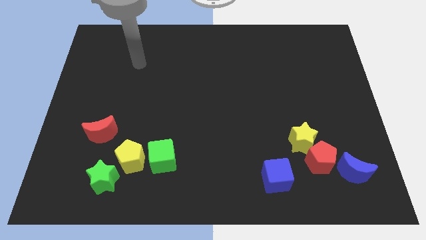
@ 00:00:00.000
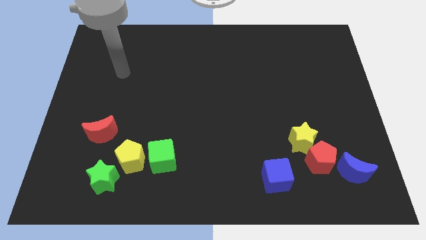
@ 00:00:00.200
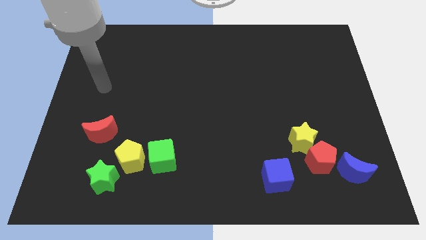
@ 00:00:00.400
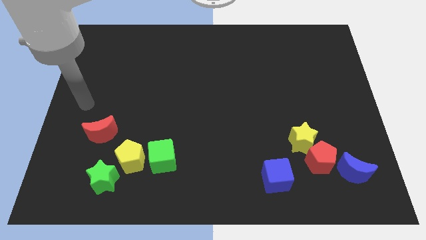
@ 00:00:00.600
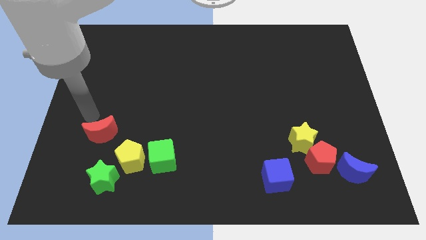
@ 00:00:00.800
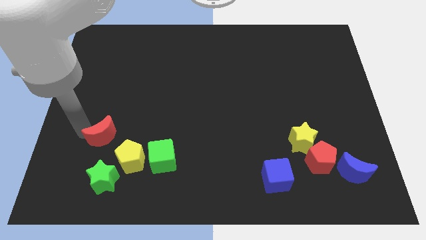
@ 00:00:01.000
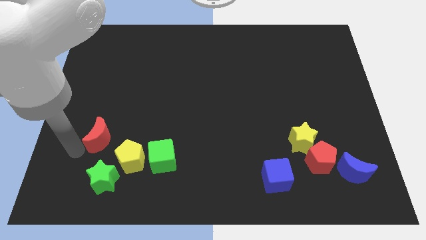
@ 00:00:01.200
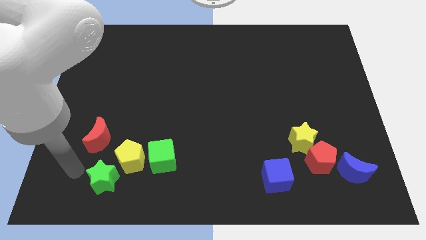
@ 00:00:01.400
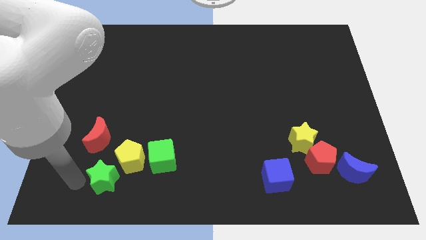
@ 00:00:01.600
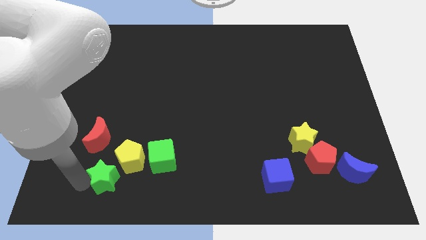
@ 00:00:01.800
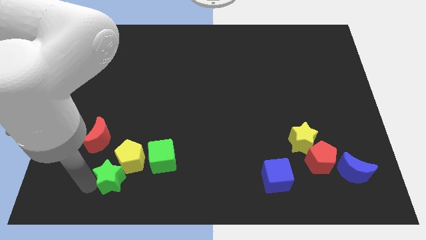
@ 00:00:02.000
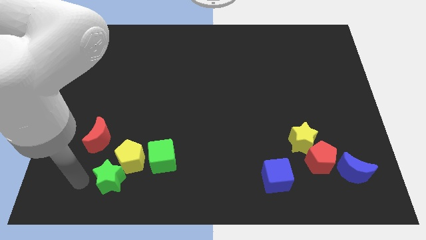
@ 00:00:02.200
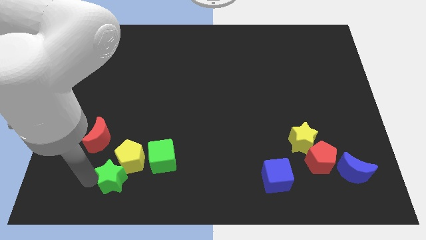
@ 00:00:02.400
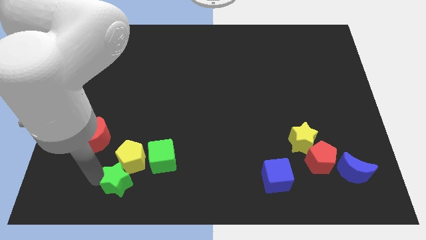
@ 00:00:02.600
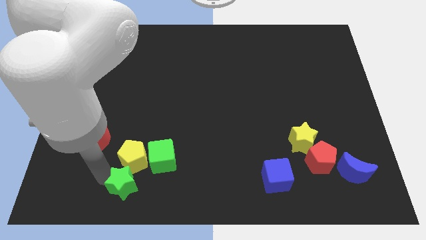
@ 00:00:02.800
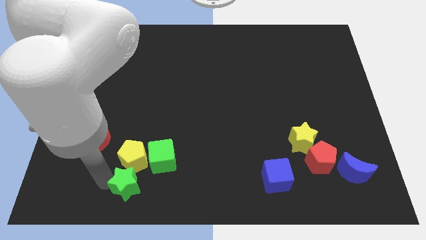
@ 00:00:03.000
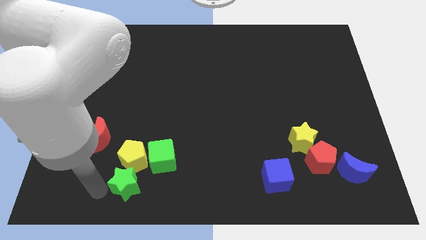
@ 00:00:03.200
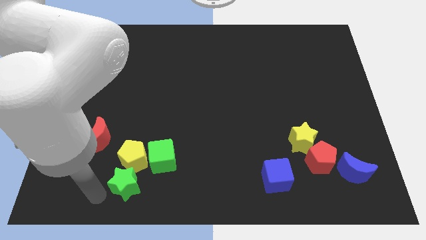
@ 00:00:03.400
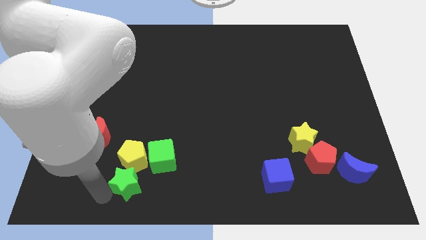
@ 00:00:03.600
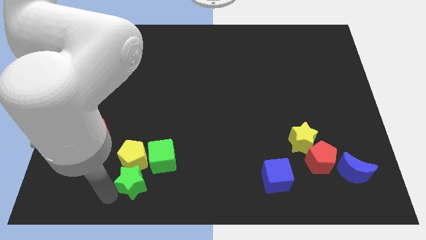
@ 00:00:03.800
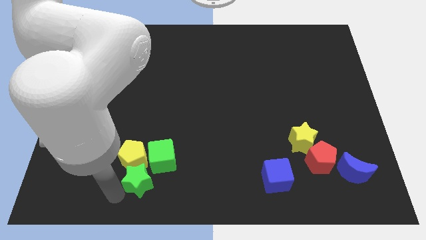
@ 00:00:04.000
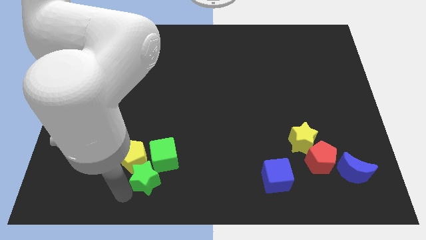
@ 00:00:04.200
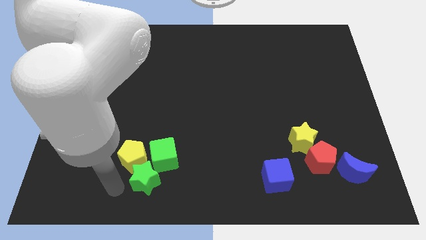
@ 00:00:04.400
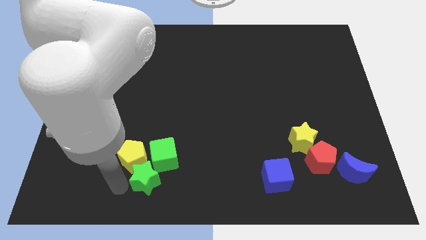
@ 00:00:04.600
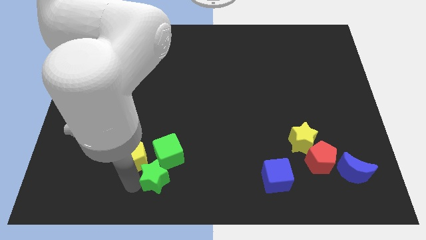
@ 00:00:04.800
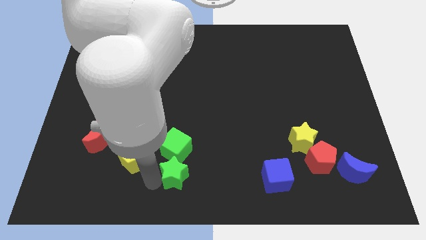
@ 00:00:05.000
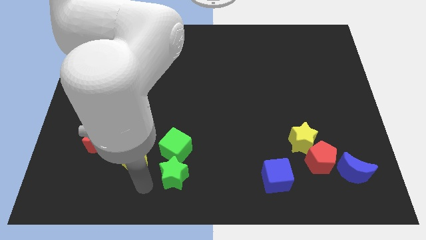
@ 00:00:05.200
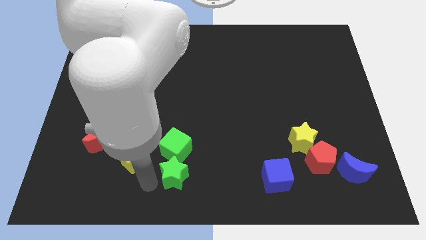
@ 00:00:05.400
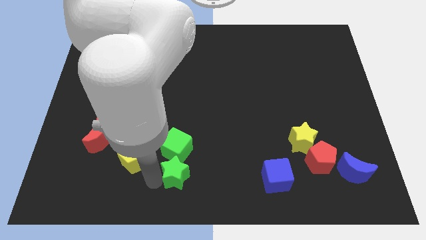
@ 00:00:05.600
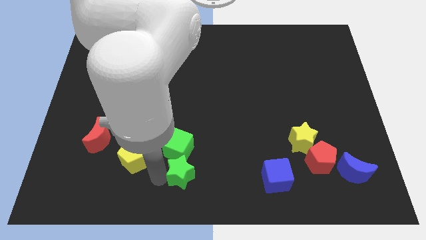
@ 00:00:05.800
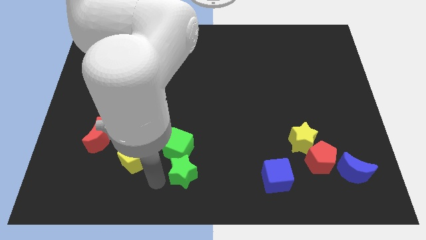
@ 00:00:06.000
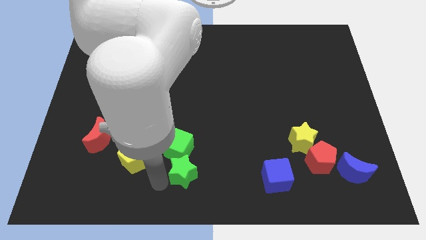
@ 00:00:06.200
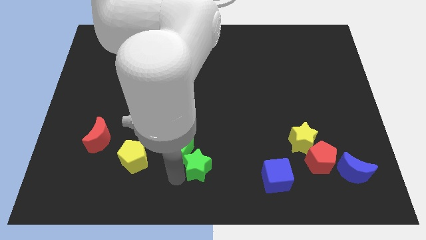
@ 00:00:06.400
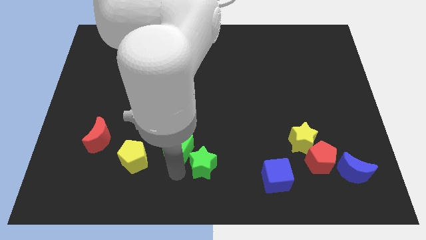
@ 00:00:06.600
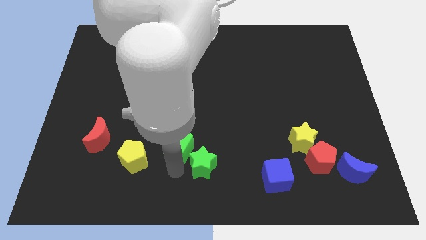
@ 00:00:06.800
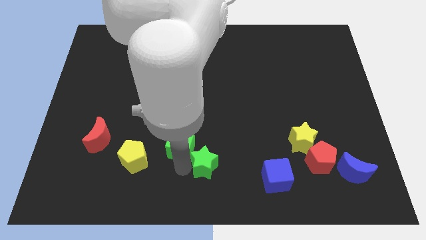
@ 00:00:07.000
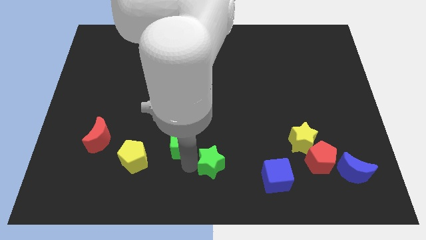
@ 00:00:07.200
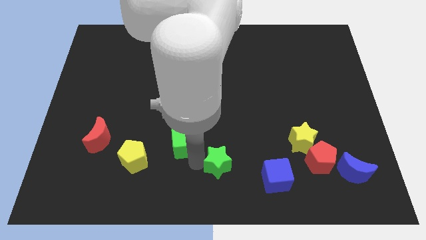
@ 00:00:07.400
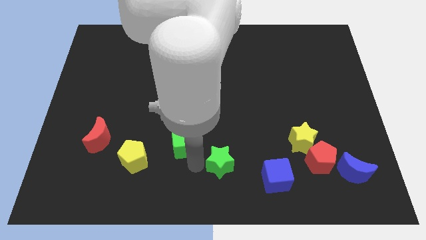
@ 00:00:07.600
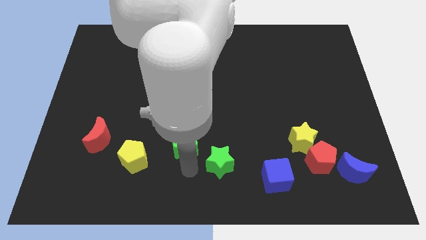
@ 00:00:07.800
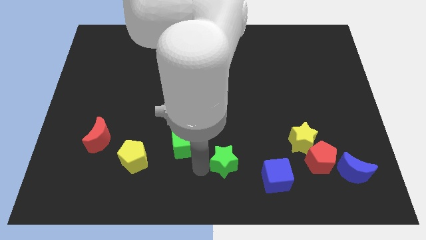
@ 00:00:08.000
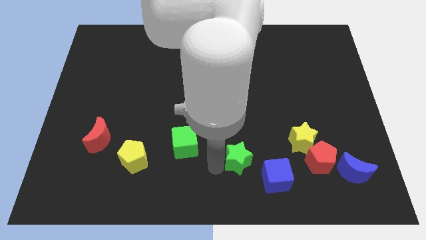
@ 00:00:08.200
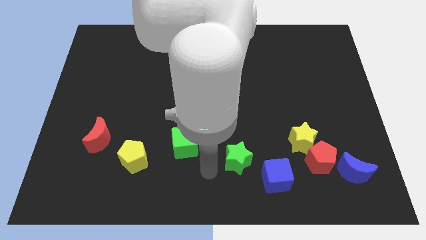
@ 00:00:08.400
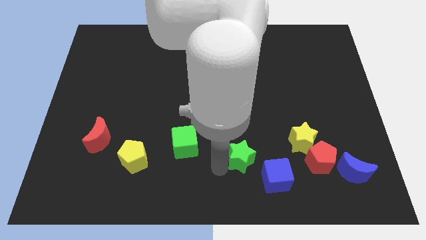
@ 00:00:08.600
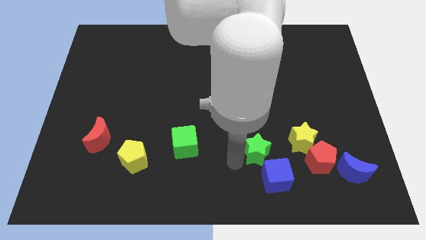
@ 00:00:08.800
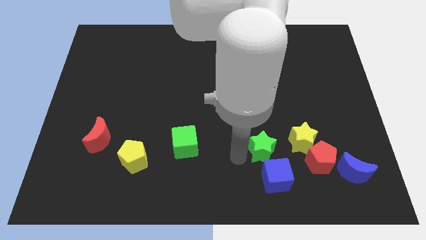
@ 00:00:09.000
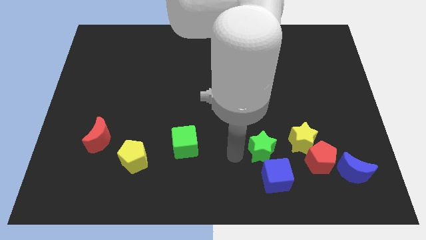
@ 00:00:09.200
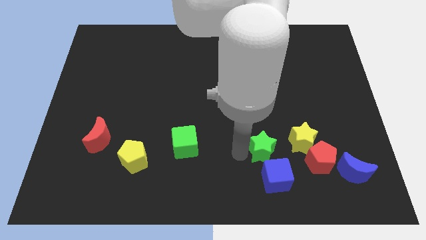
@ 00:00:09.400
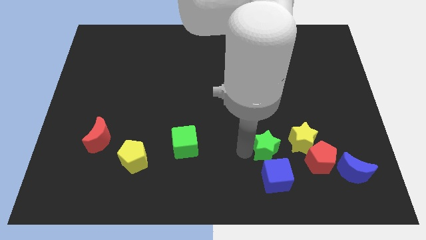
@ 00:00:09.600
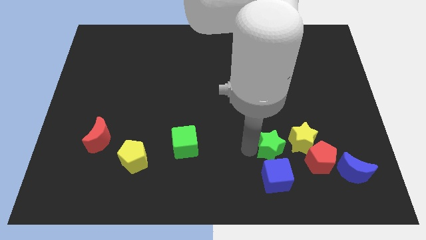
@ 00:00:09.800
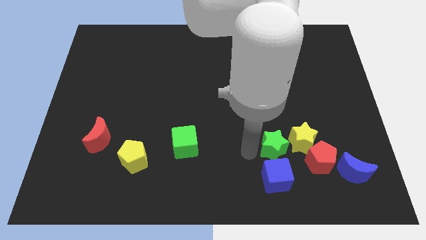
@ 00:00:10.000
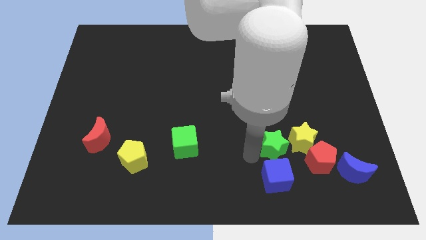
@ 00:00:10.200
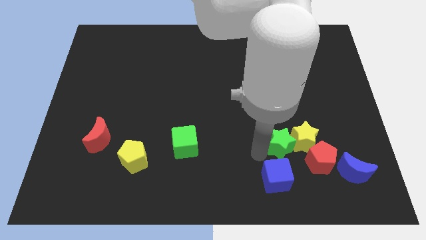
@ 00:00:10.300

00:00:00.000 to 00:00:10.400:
push the green star to the yellow star

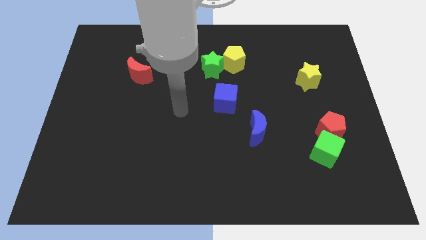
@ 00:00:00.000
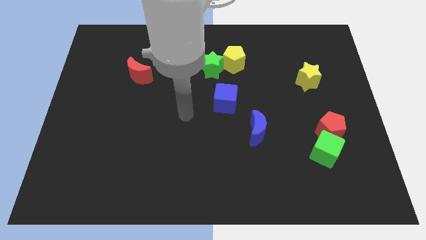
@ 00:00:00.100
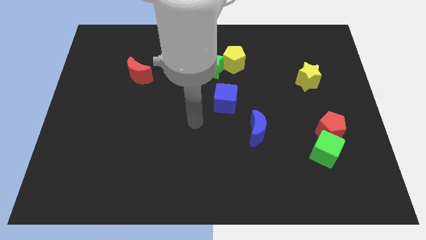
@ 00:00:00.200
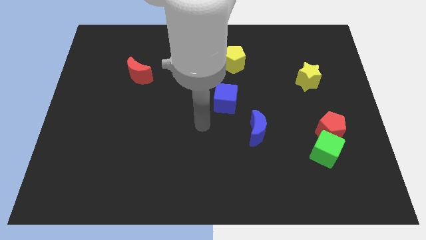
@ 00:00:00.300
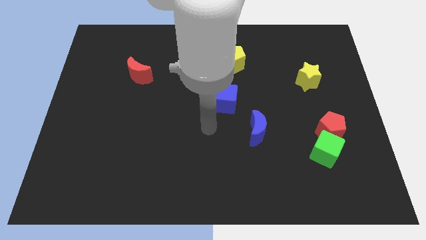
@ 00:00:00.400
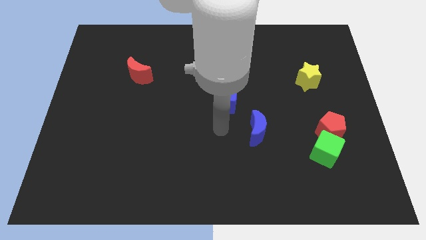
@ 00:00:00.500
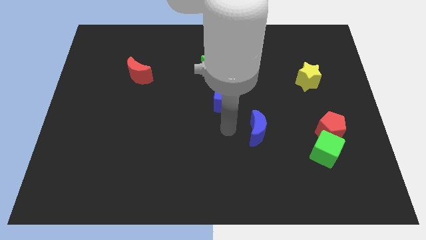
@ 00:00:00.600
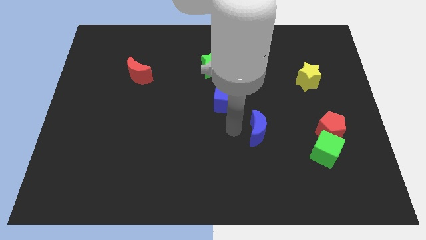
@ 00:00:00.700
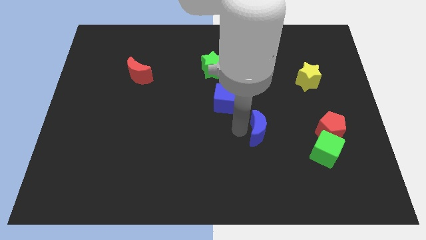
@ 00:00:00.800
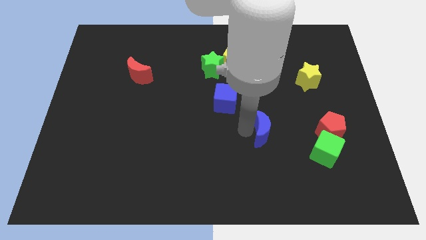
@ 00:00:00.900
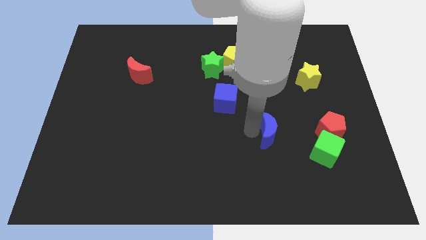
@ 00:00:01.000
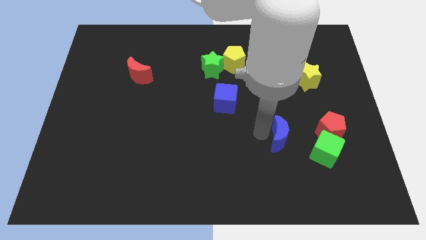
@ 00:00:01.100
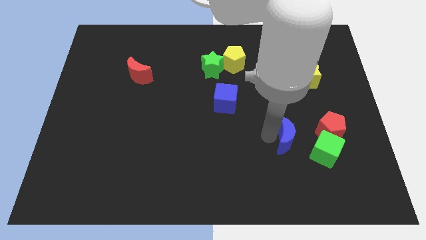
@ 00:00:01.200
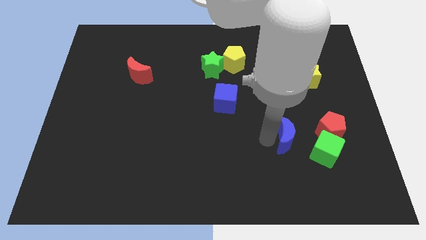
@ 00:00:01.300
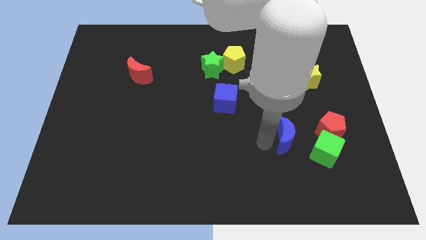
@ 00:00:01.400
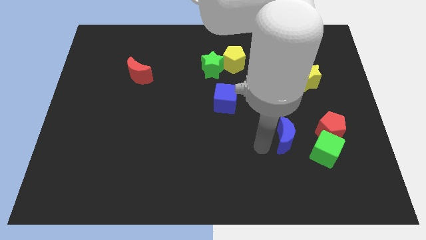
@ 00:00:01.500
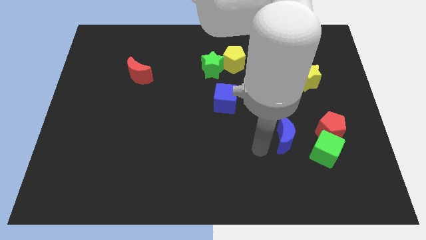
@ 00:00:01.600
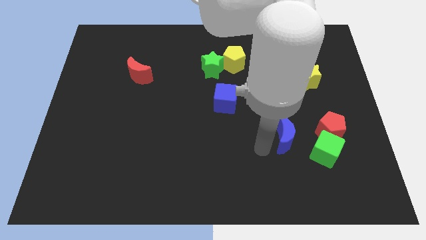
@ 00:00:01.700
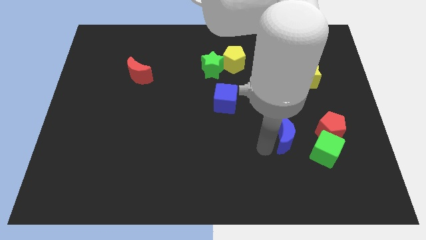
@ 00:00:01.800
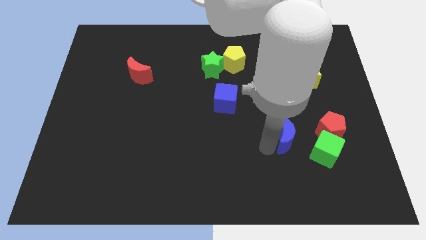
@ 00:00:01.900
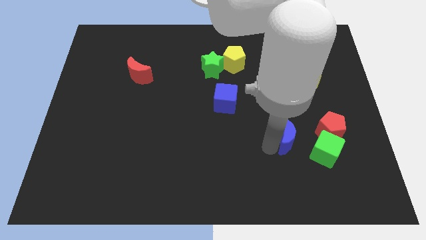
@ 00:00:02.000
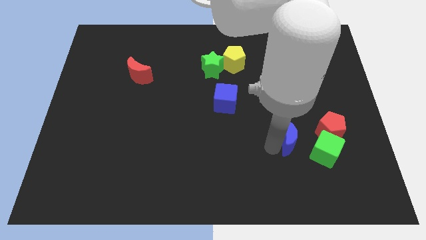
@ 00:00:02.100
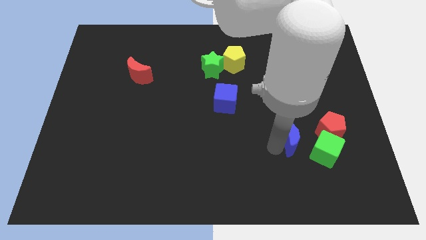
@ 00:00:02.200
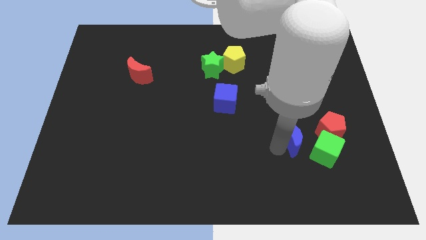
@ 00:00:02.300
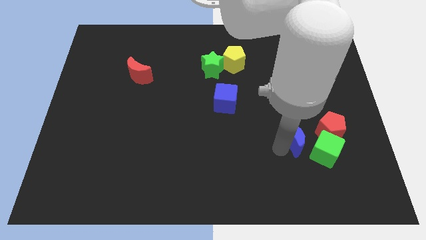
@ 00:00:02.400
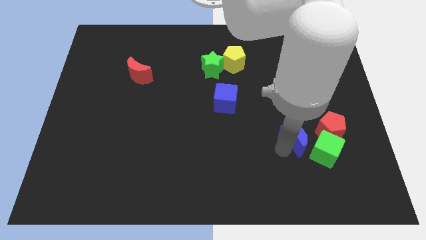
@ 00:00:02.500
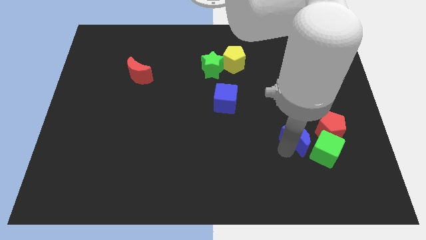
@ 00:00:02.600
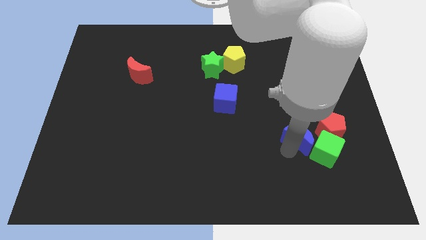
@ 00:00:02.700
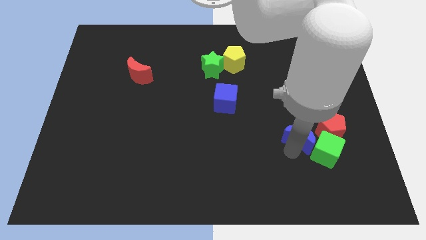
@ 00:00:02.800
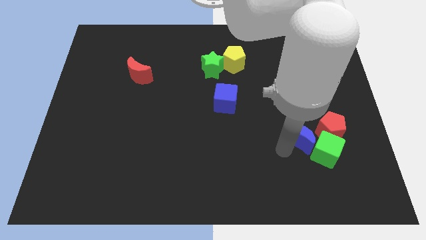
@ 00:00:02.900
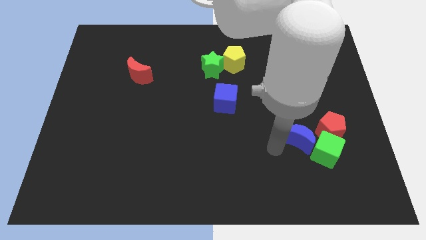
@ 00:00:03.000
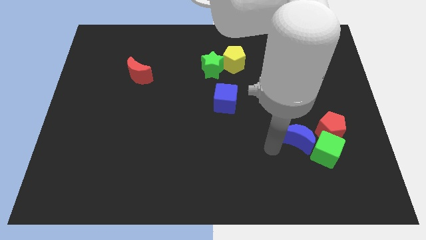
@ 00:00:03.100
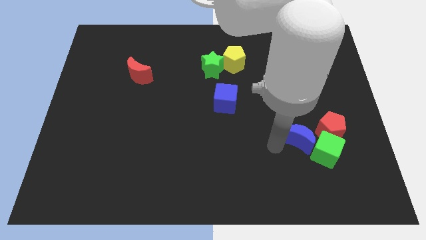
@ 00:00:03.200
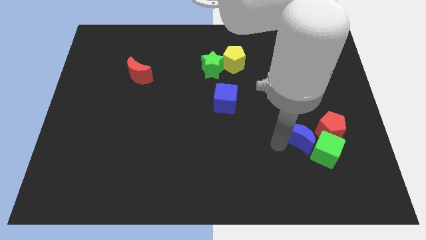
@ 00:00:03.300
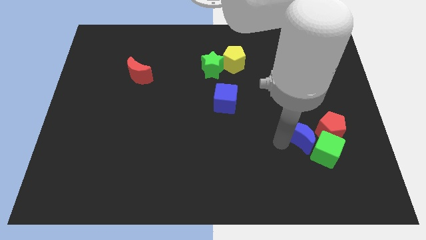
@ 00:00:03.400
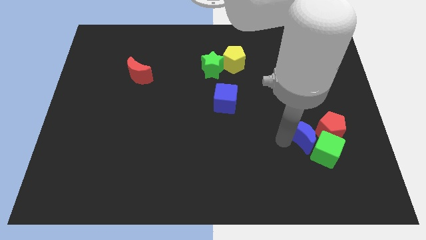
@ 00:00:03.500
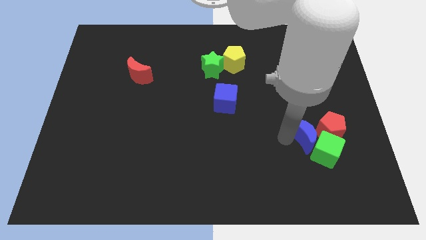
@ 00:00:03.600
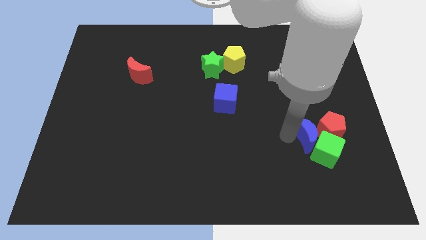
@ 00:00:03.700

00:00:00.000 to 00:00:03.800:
move the blue moon next to the red pentagon
